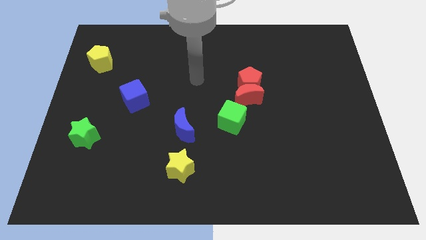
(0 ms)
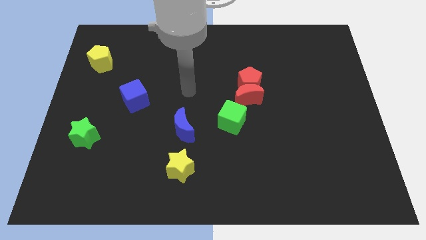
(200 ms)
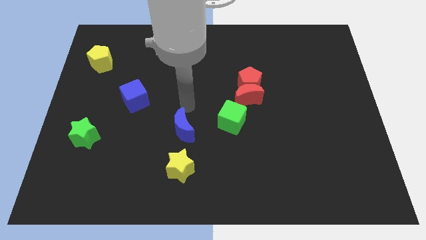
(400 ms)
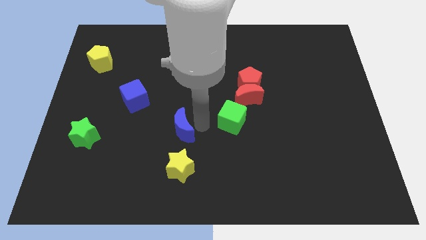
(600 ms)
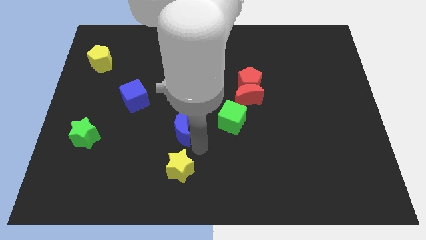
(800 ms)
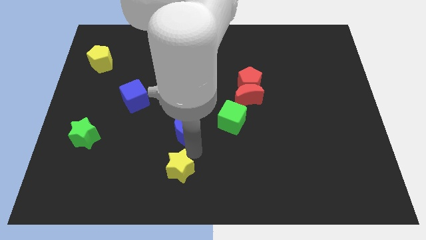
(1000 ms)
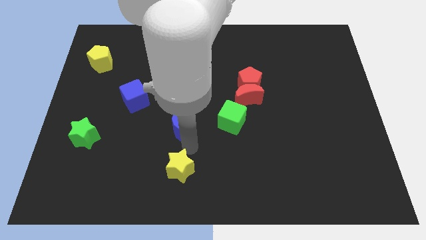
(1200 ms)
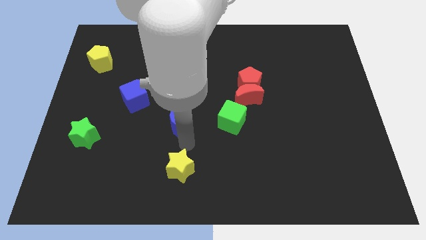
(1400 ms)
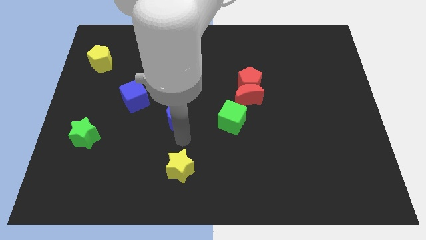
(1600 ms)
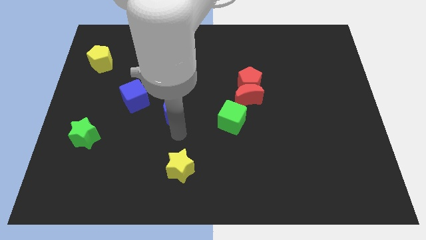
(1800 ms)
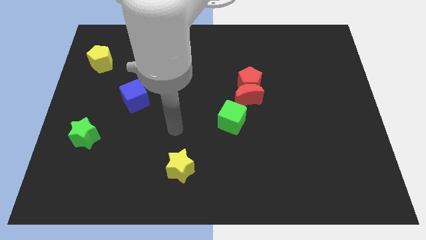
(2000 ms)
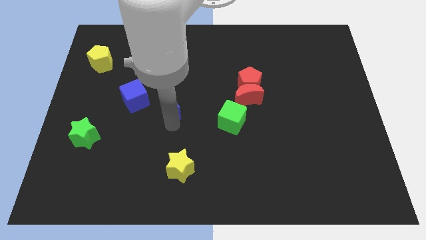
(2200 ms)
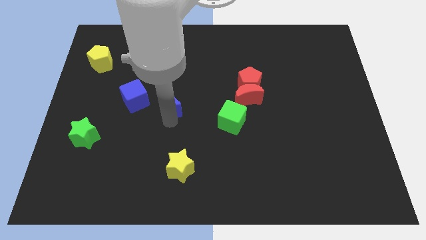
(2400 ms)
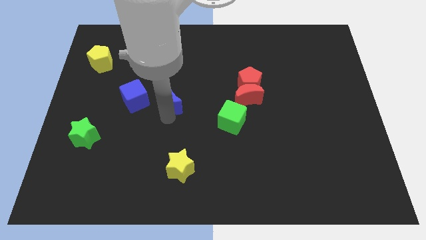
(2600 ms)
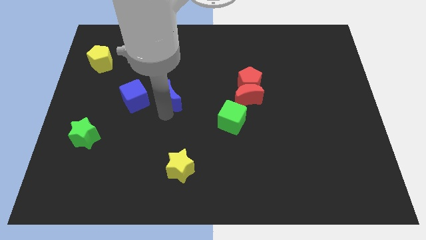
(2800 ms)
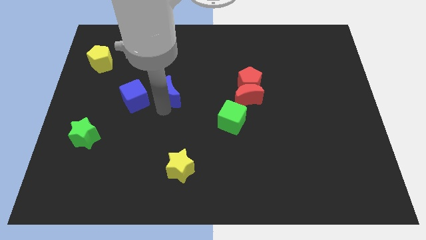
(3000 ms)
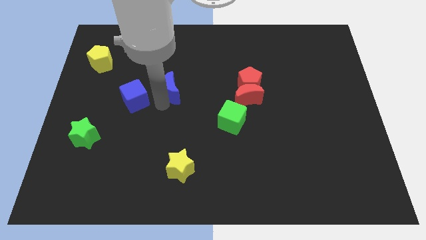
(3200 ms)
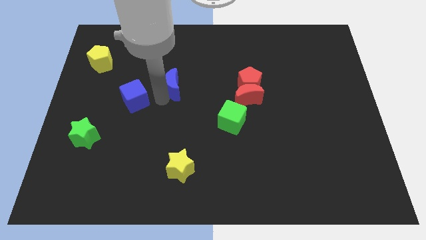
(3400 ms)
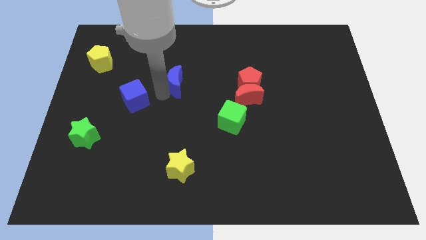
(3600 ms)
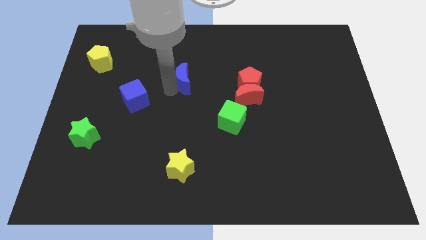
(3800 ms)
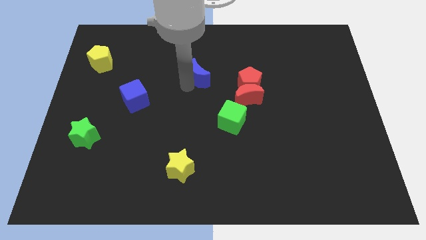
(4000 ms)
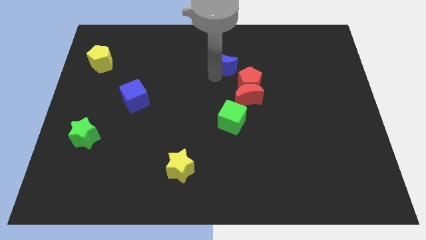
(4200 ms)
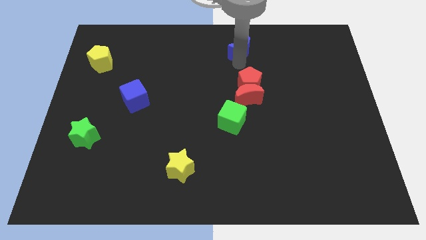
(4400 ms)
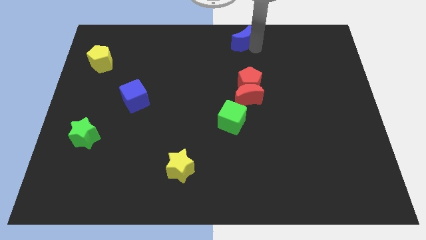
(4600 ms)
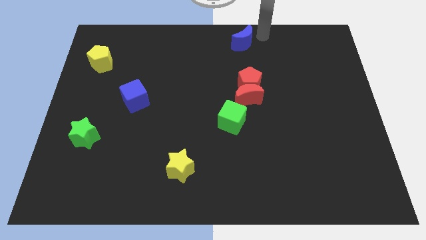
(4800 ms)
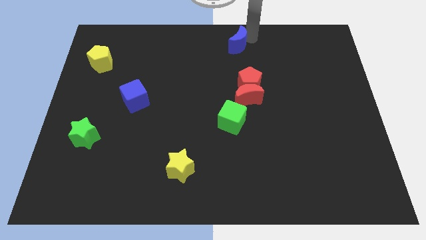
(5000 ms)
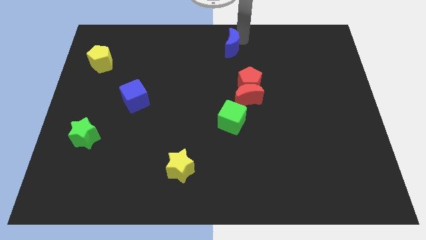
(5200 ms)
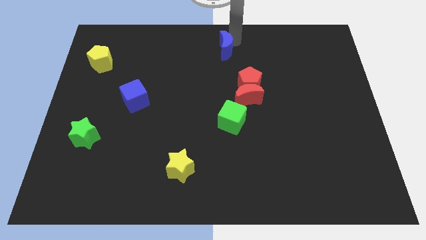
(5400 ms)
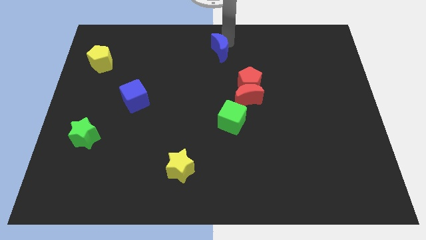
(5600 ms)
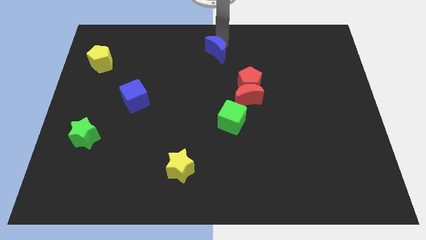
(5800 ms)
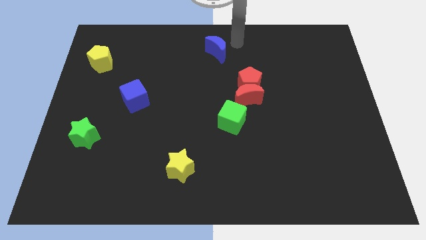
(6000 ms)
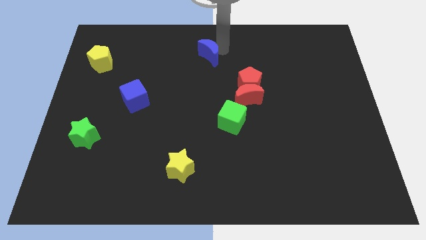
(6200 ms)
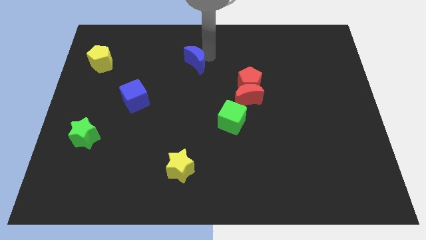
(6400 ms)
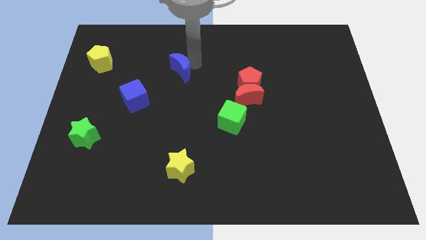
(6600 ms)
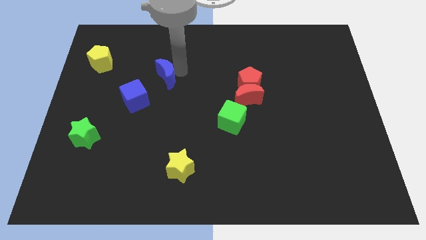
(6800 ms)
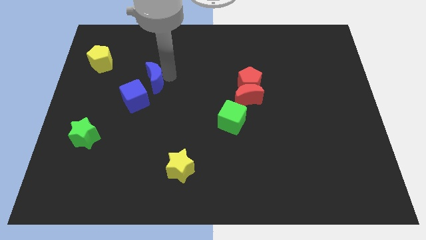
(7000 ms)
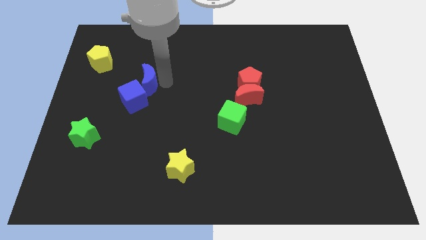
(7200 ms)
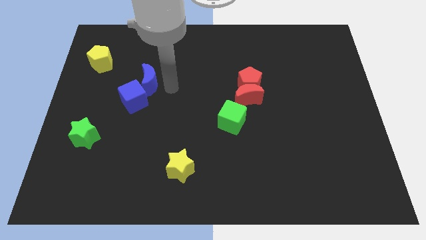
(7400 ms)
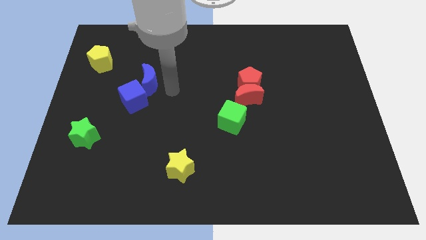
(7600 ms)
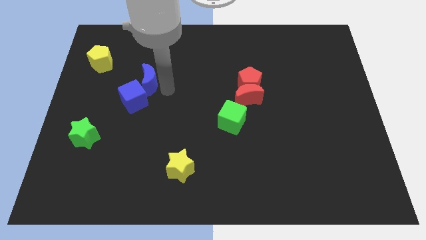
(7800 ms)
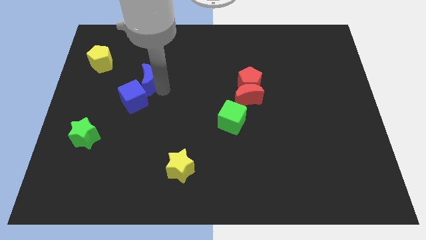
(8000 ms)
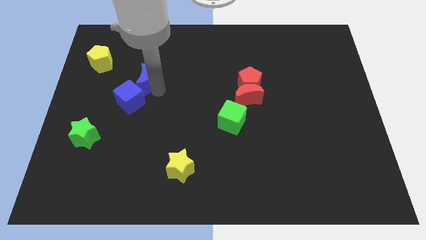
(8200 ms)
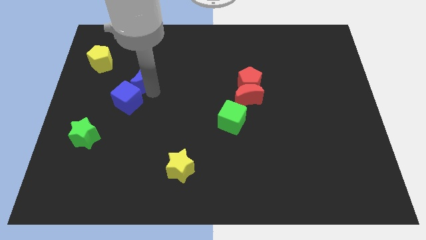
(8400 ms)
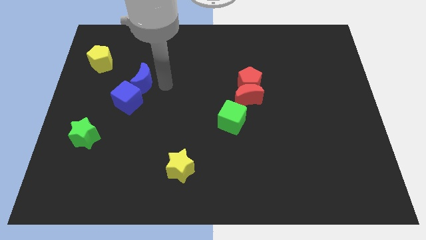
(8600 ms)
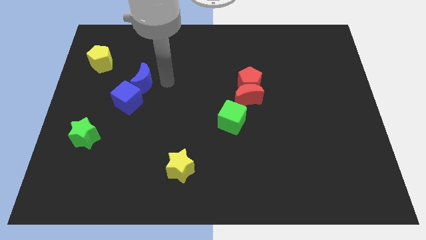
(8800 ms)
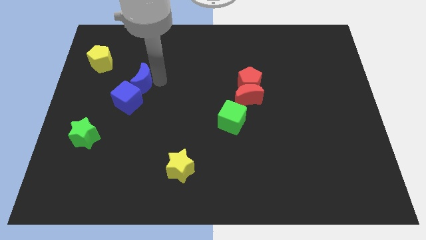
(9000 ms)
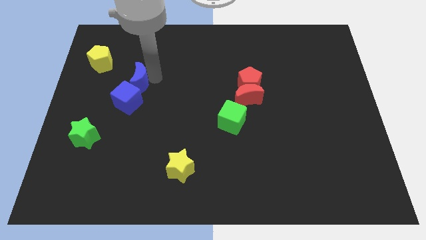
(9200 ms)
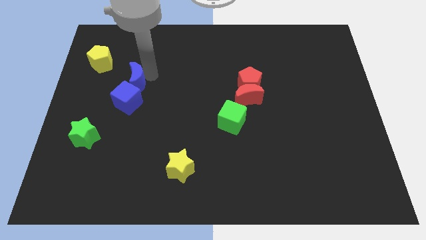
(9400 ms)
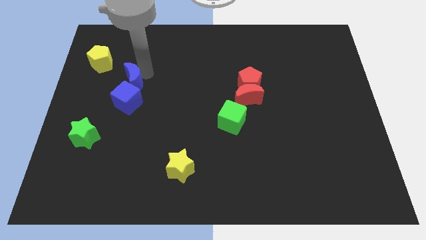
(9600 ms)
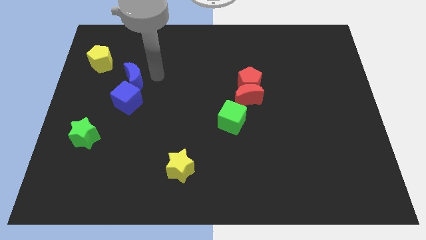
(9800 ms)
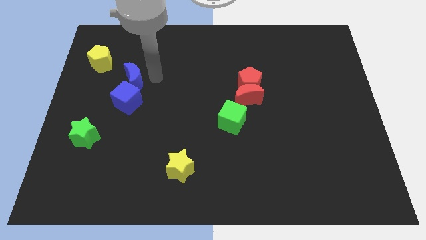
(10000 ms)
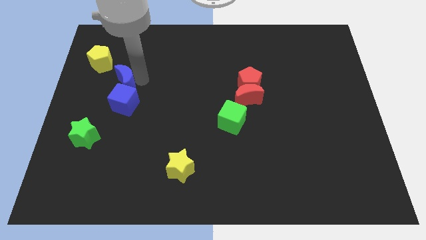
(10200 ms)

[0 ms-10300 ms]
push the blue moon to the top left side of the blue cube
